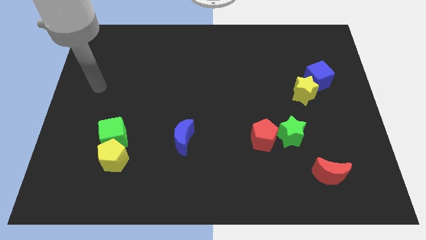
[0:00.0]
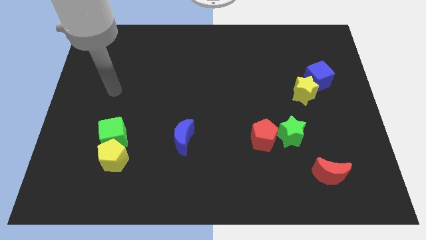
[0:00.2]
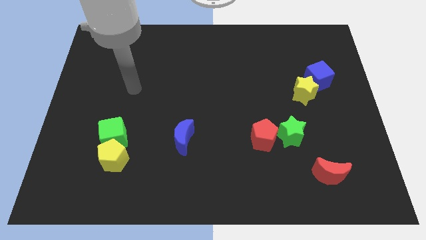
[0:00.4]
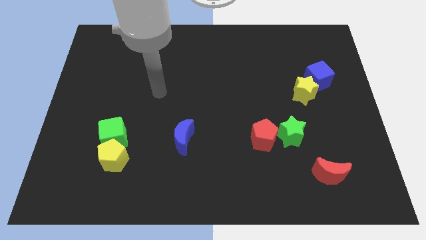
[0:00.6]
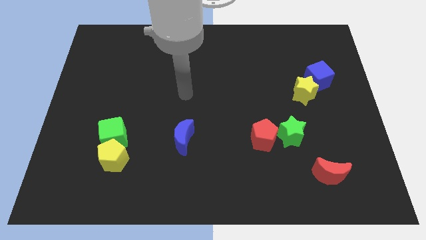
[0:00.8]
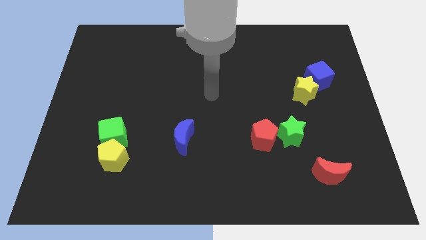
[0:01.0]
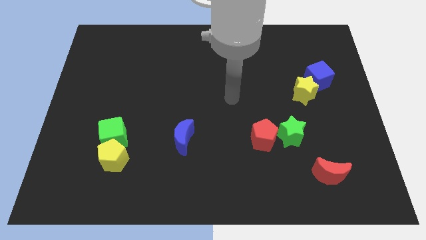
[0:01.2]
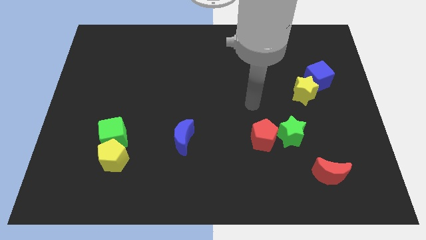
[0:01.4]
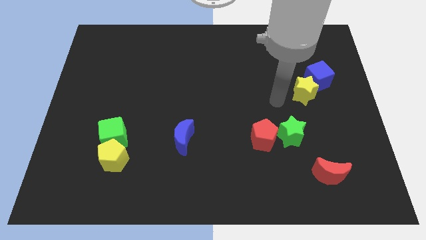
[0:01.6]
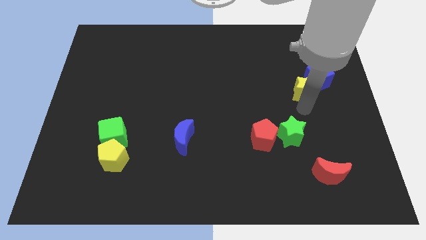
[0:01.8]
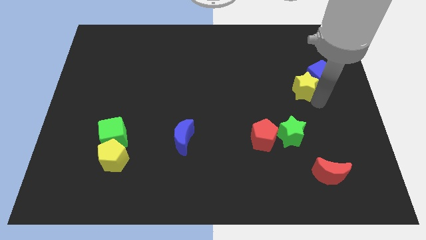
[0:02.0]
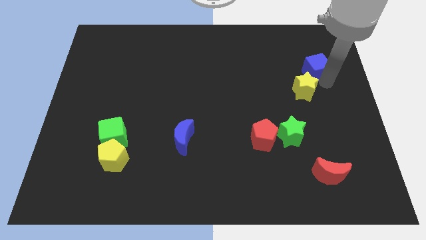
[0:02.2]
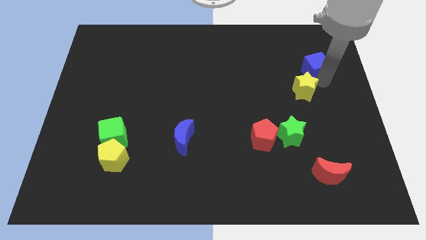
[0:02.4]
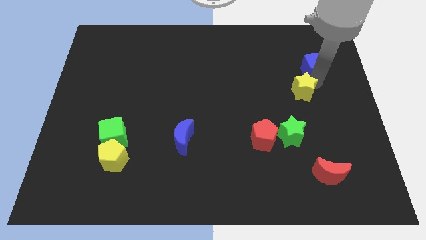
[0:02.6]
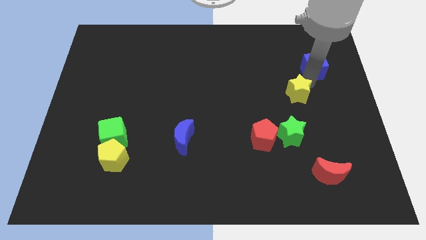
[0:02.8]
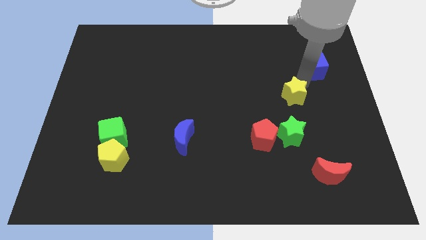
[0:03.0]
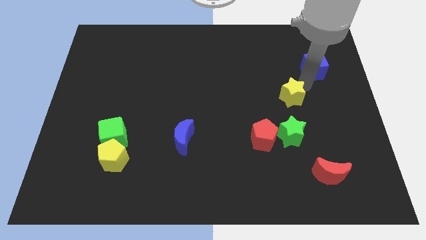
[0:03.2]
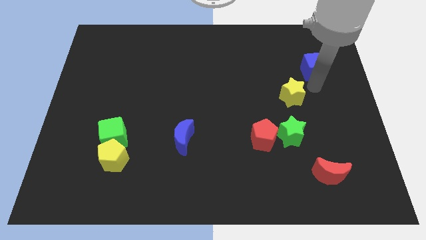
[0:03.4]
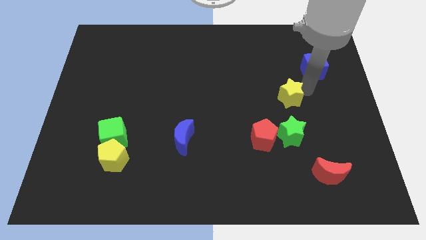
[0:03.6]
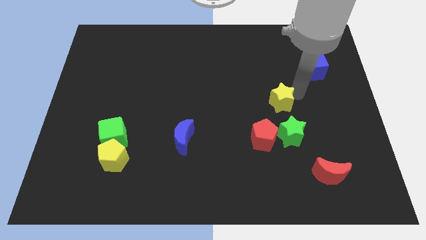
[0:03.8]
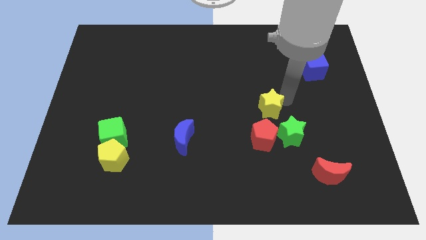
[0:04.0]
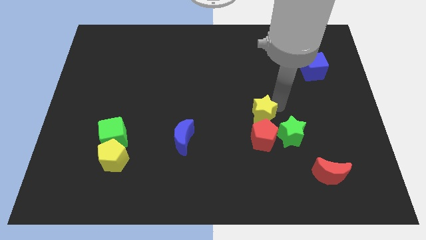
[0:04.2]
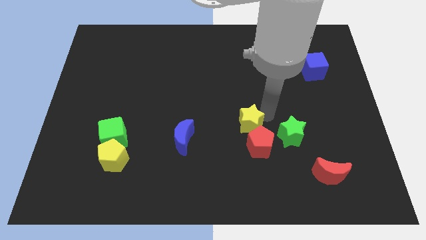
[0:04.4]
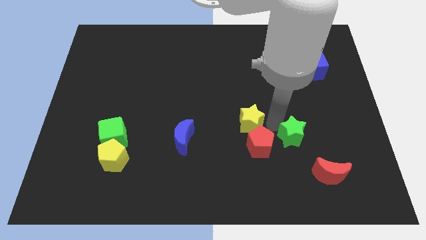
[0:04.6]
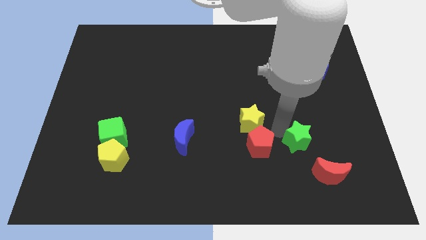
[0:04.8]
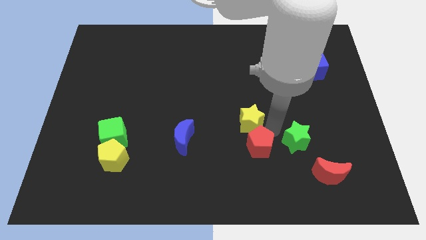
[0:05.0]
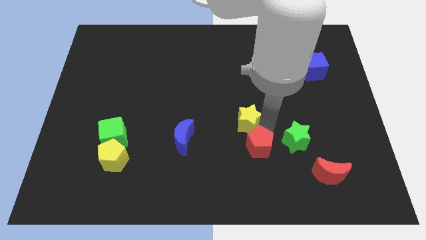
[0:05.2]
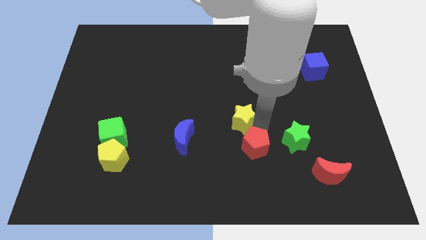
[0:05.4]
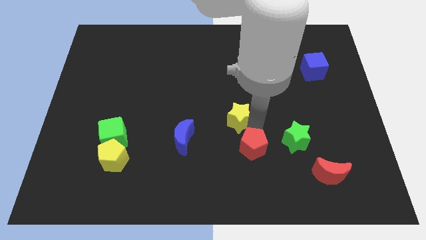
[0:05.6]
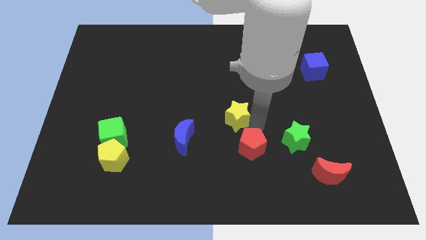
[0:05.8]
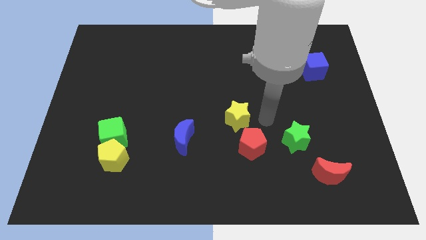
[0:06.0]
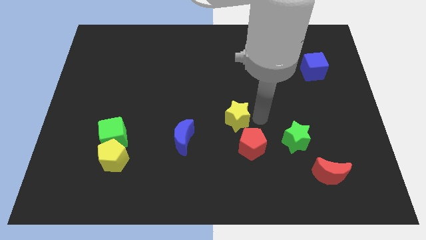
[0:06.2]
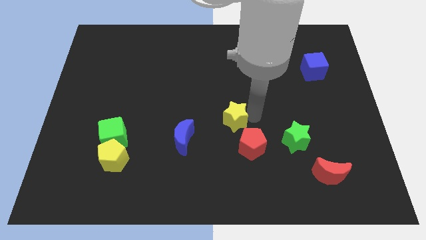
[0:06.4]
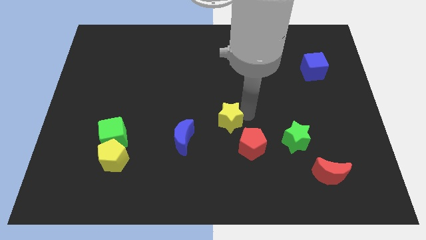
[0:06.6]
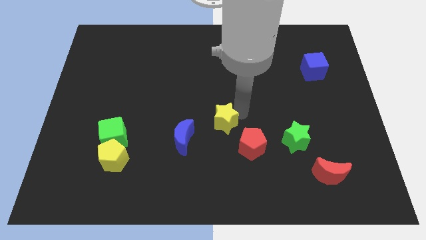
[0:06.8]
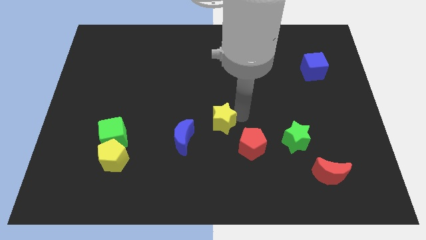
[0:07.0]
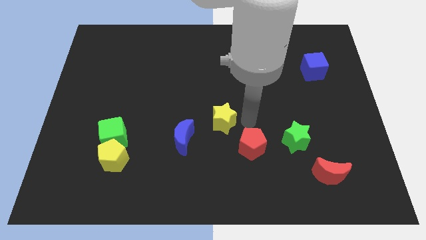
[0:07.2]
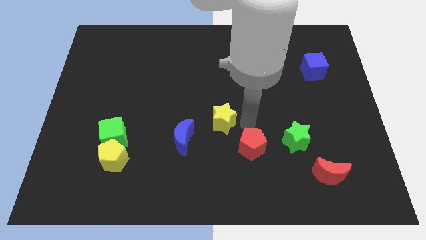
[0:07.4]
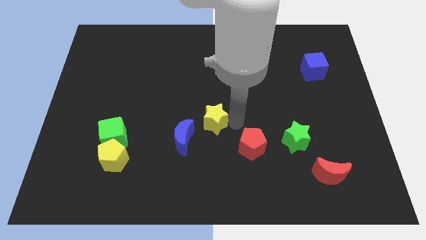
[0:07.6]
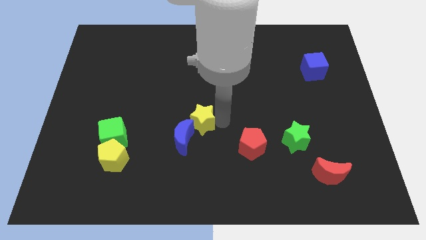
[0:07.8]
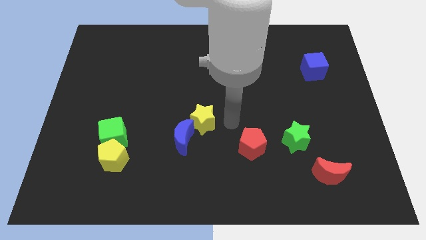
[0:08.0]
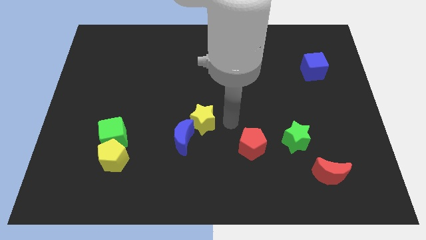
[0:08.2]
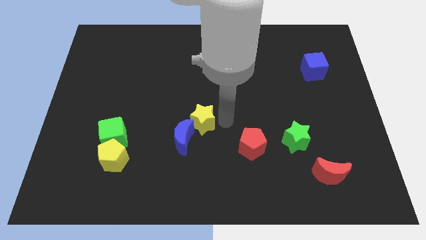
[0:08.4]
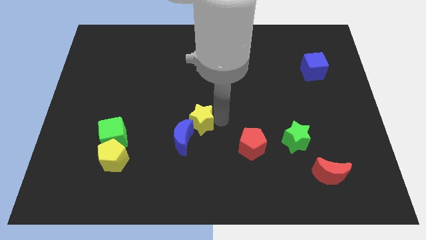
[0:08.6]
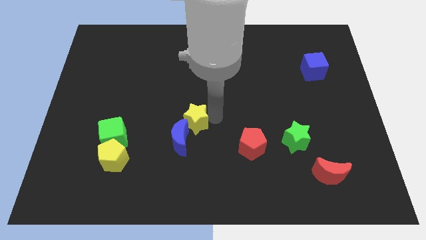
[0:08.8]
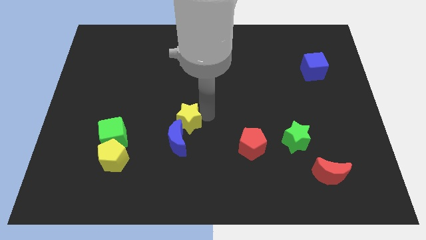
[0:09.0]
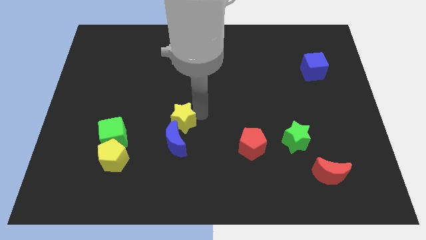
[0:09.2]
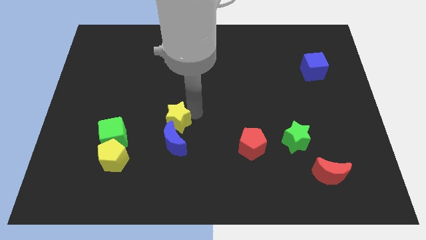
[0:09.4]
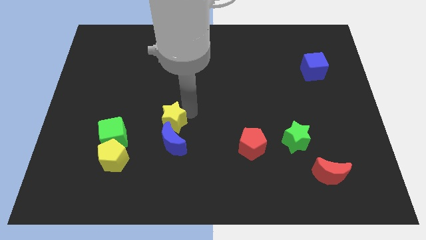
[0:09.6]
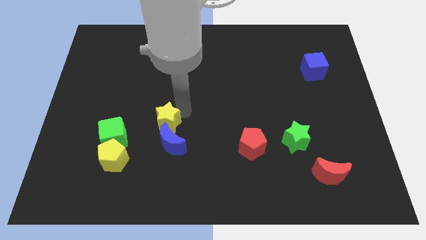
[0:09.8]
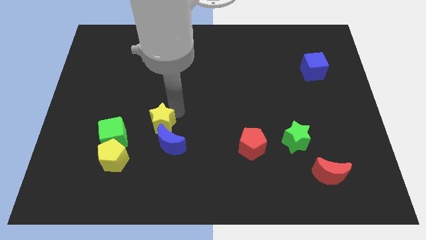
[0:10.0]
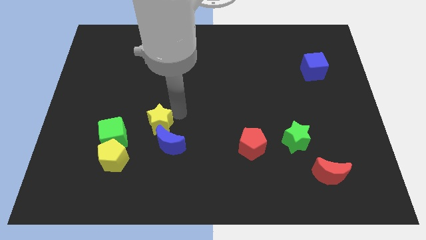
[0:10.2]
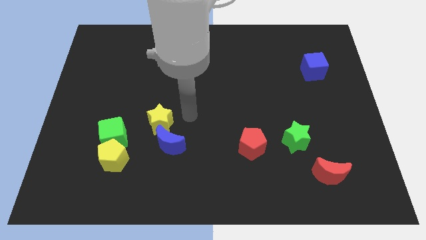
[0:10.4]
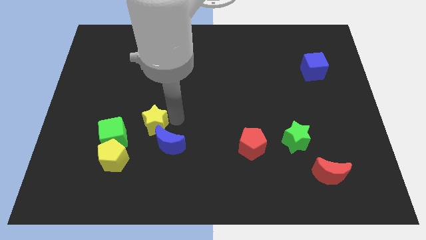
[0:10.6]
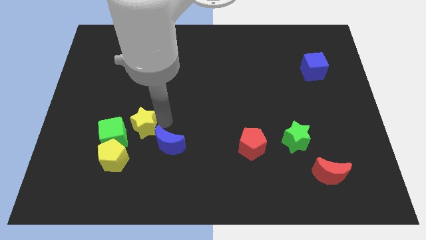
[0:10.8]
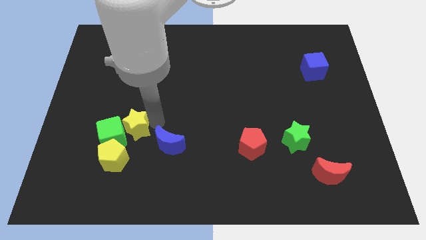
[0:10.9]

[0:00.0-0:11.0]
move the yellow star towards the green cube

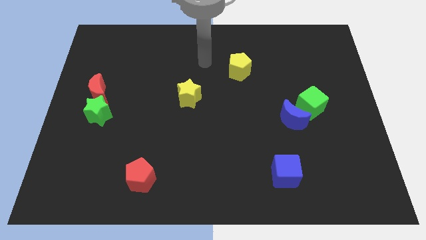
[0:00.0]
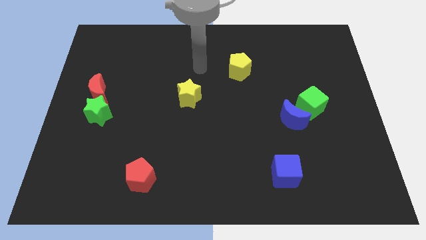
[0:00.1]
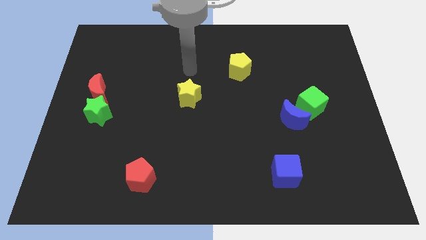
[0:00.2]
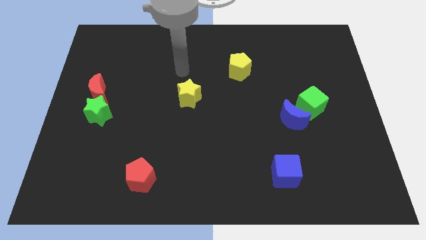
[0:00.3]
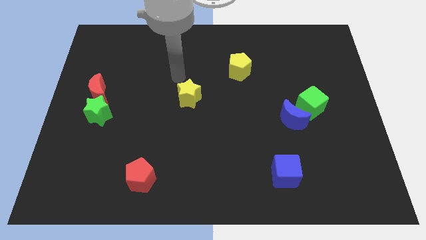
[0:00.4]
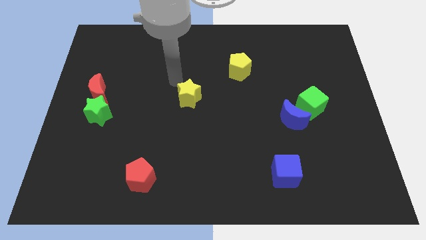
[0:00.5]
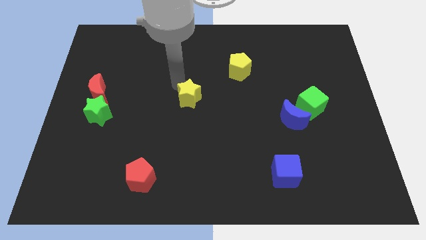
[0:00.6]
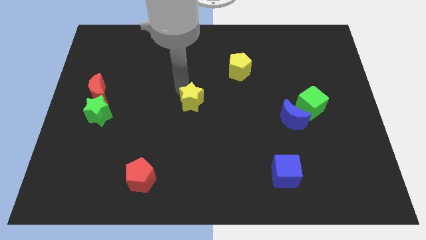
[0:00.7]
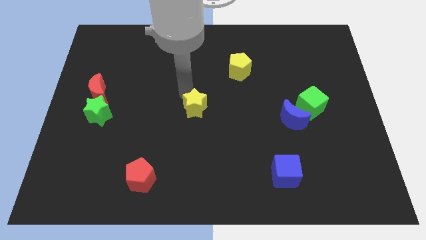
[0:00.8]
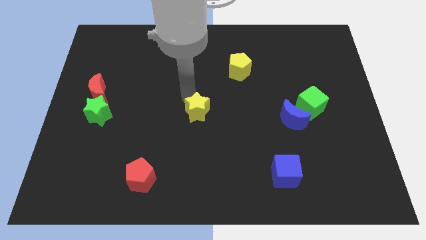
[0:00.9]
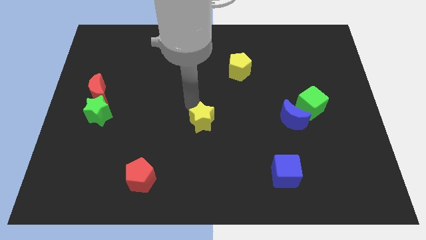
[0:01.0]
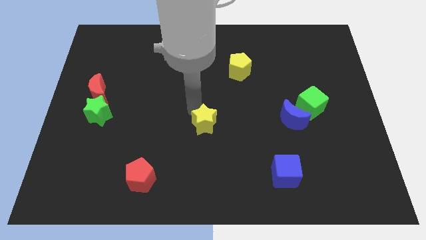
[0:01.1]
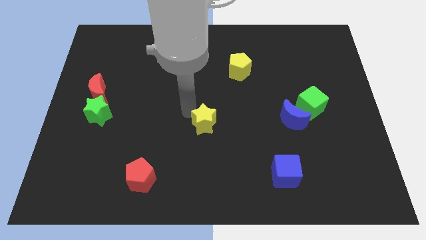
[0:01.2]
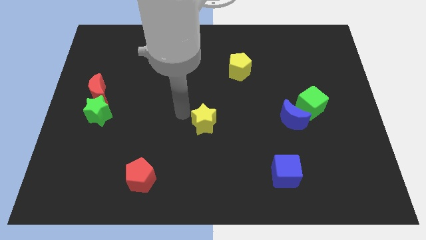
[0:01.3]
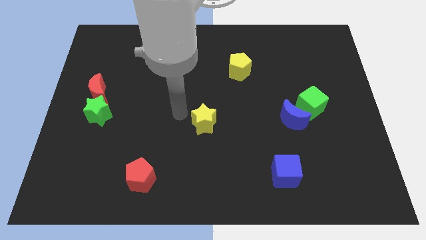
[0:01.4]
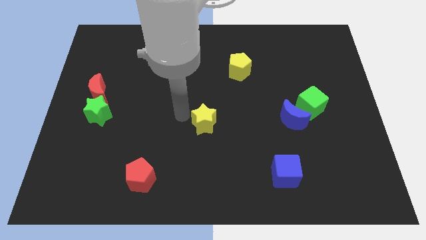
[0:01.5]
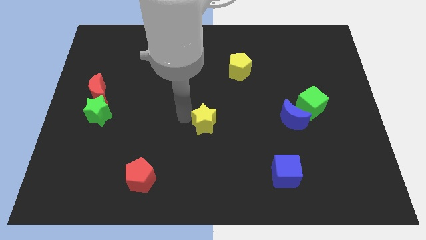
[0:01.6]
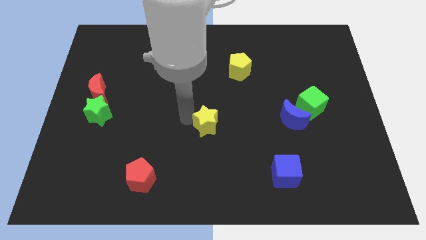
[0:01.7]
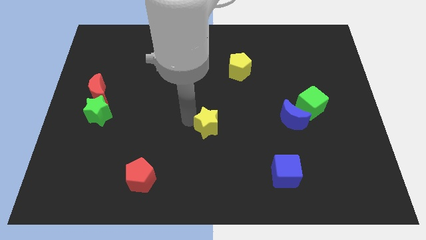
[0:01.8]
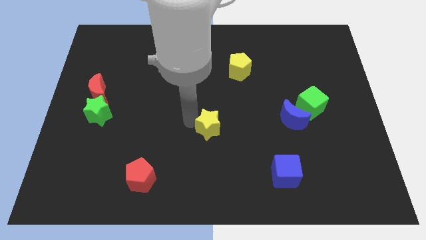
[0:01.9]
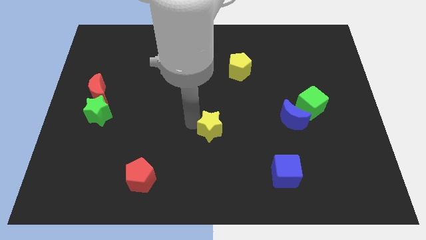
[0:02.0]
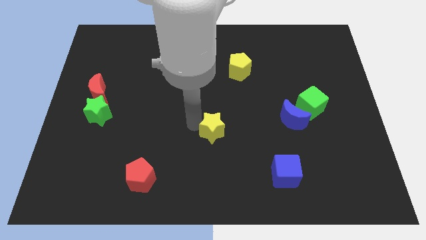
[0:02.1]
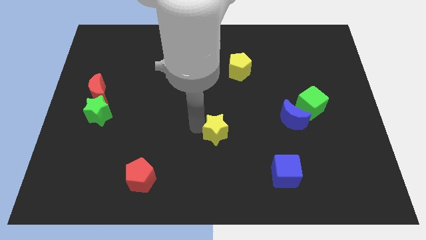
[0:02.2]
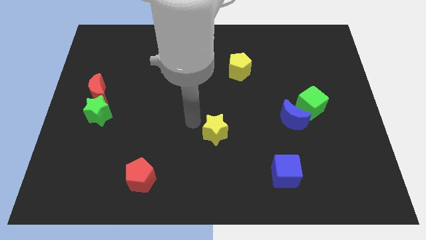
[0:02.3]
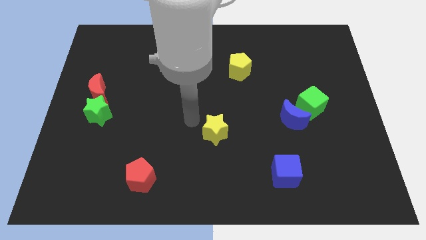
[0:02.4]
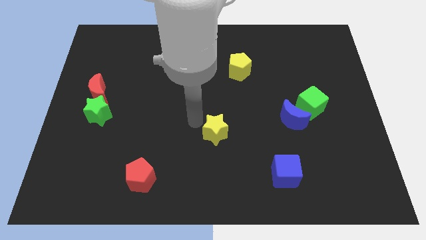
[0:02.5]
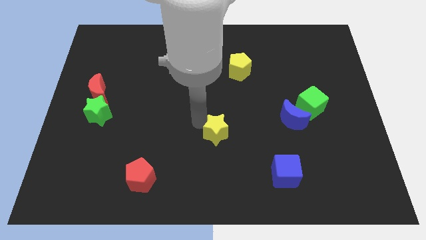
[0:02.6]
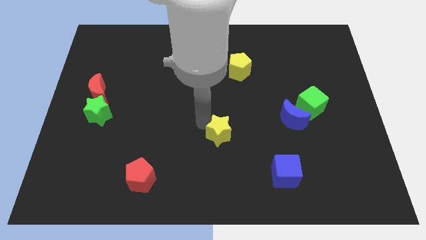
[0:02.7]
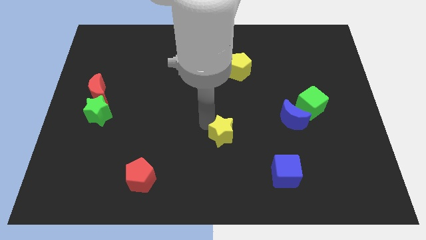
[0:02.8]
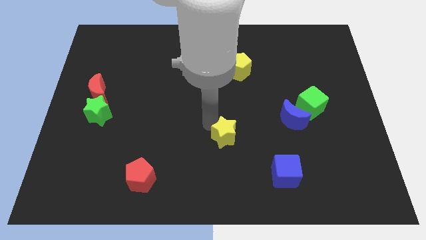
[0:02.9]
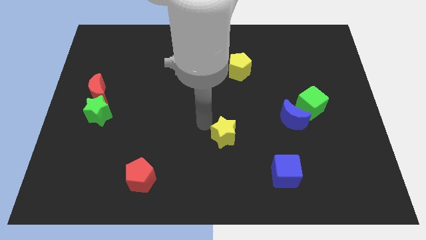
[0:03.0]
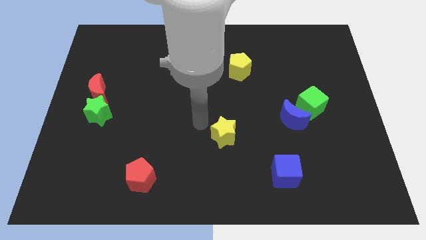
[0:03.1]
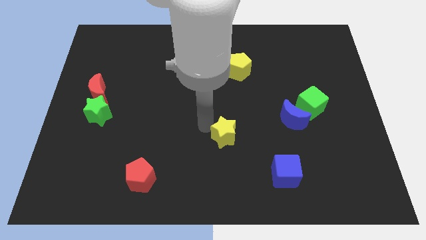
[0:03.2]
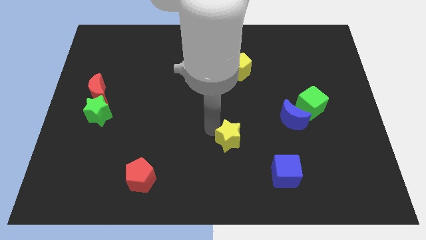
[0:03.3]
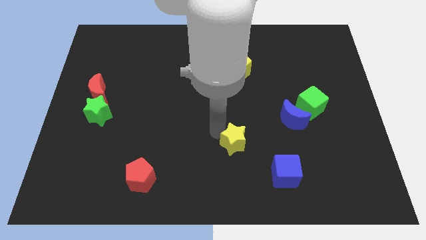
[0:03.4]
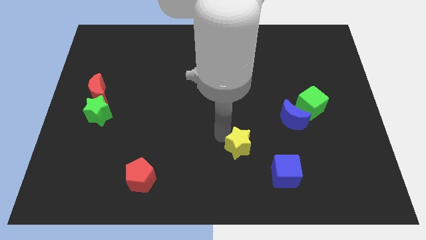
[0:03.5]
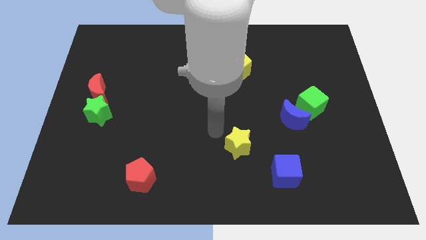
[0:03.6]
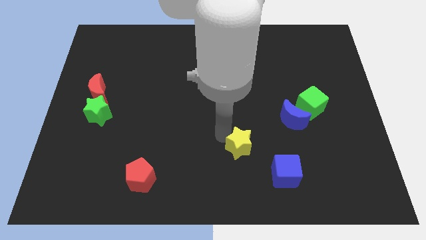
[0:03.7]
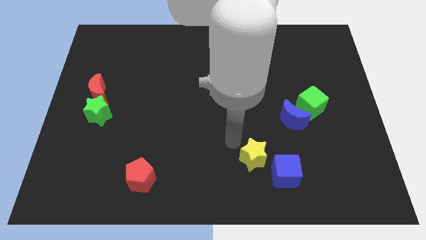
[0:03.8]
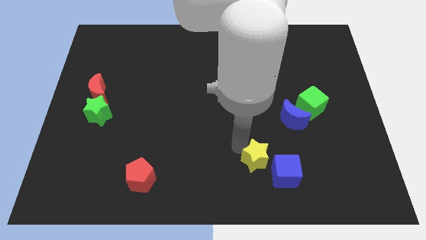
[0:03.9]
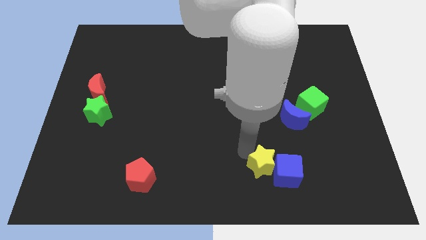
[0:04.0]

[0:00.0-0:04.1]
put the yellow star to the blue cube
